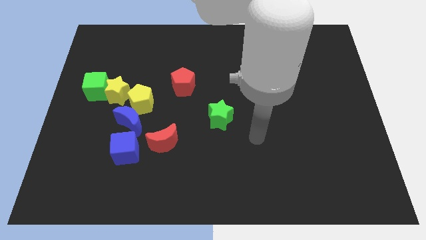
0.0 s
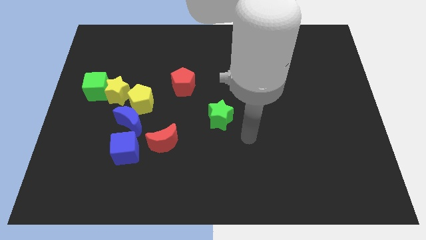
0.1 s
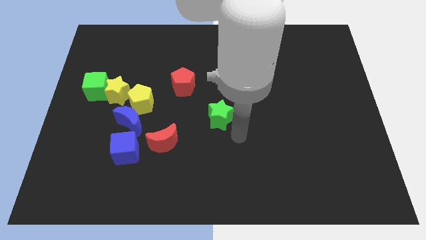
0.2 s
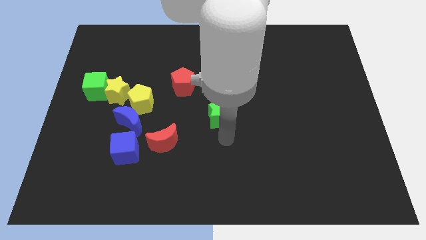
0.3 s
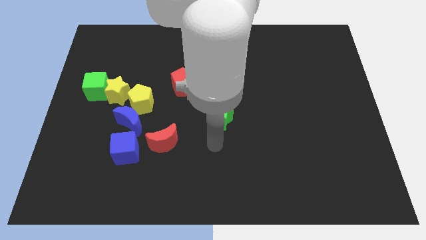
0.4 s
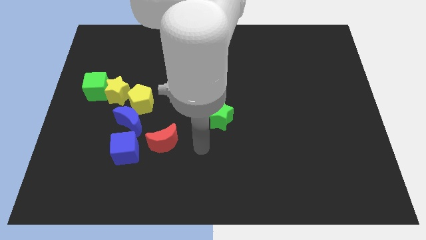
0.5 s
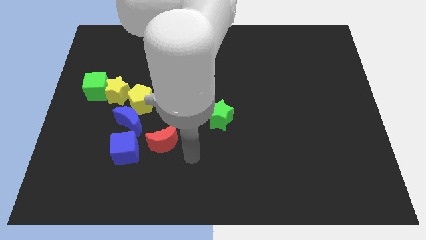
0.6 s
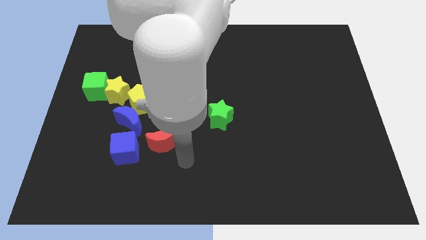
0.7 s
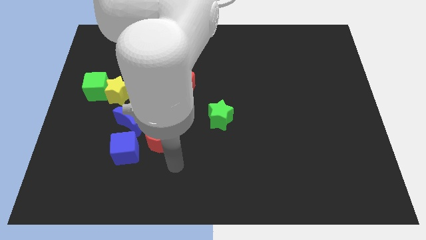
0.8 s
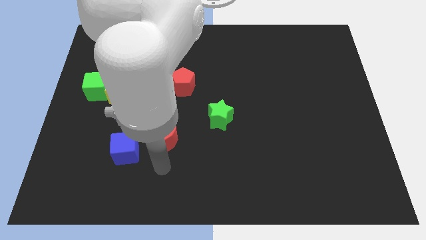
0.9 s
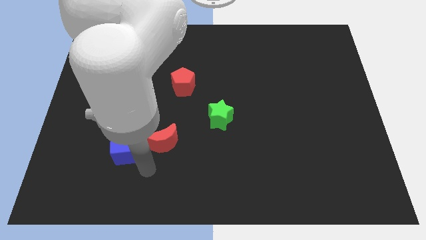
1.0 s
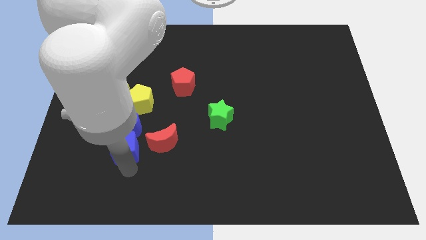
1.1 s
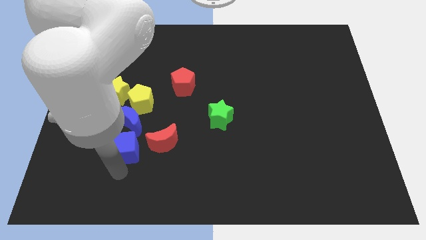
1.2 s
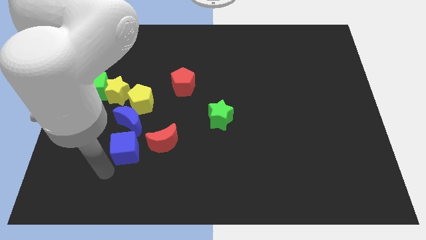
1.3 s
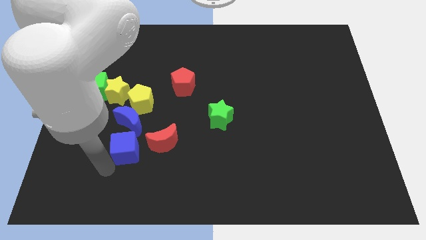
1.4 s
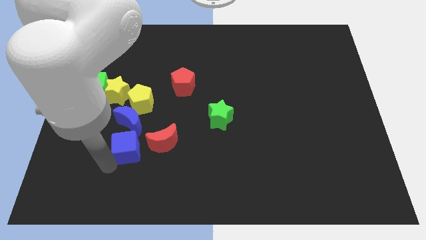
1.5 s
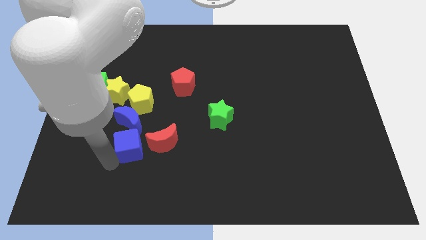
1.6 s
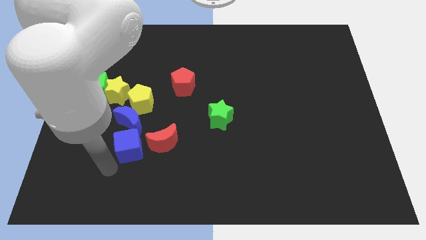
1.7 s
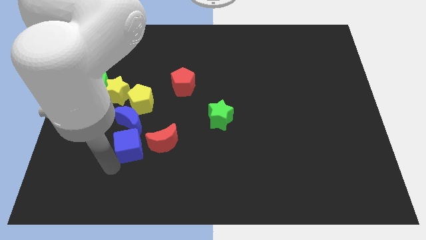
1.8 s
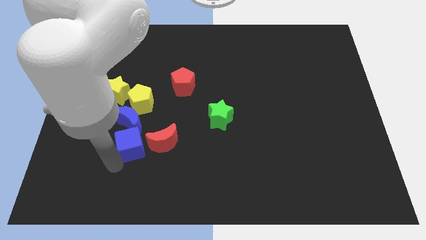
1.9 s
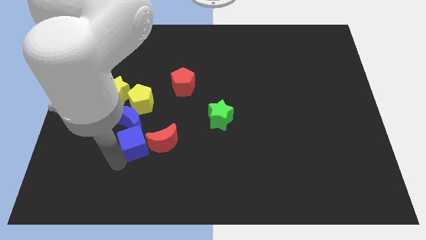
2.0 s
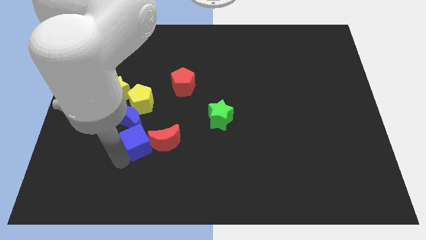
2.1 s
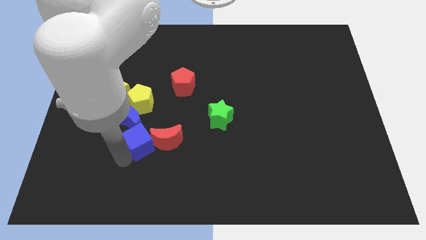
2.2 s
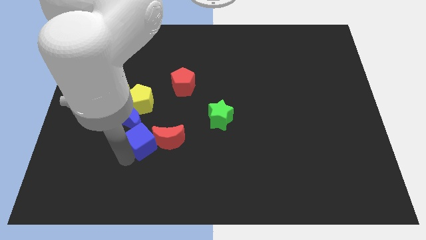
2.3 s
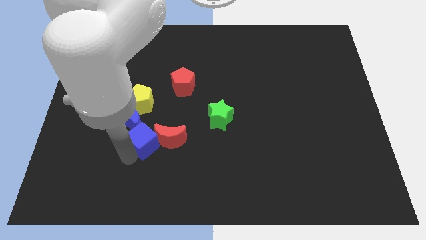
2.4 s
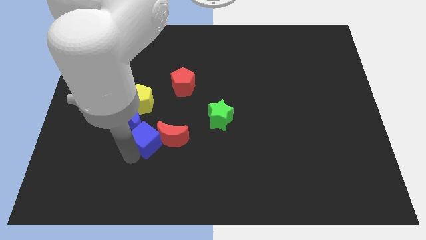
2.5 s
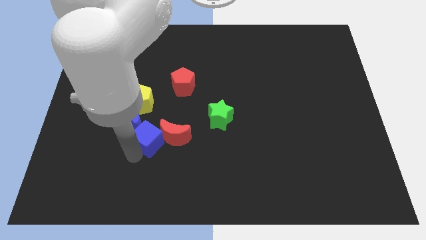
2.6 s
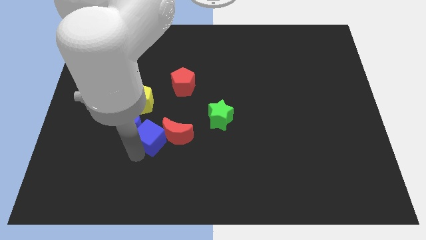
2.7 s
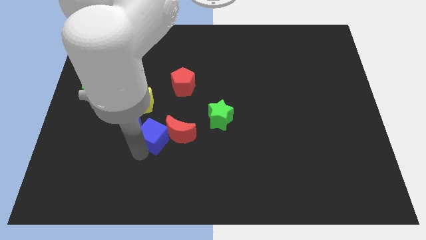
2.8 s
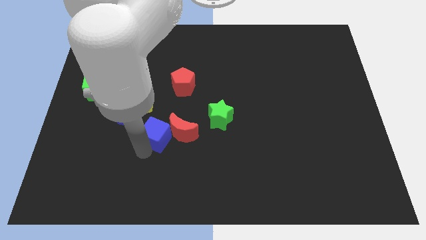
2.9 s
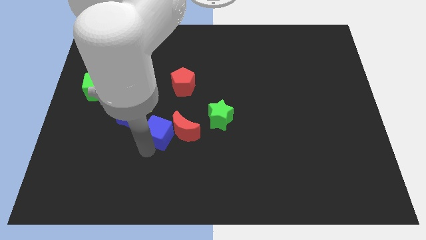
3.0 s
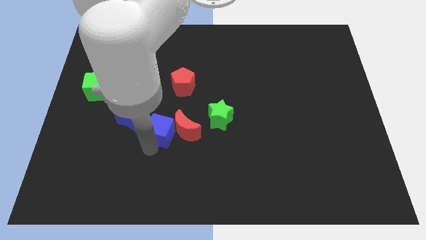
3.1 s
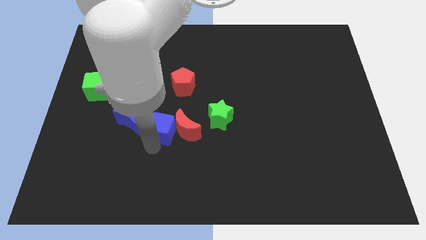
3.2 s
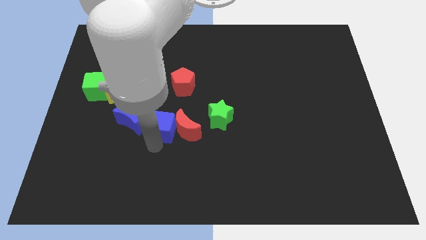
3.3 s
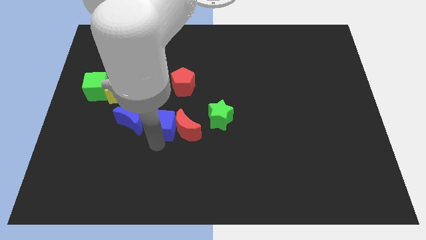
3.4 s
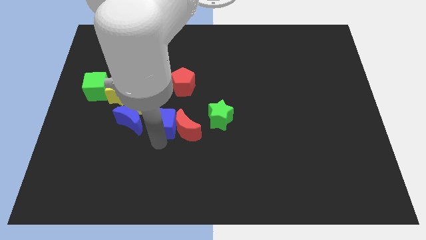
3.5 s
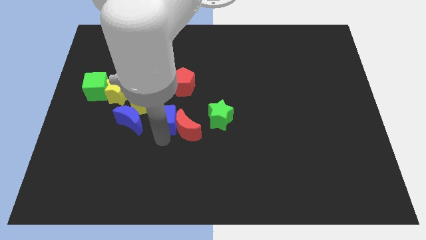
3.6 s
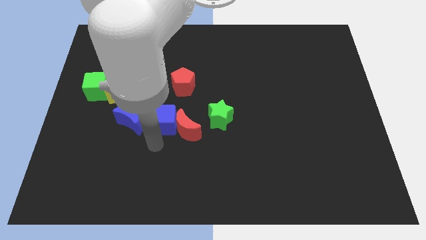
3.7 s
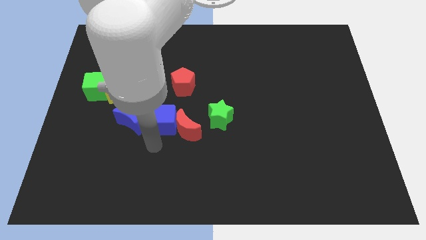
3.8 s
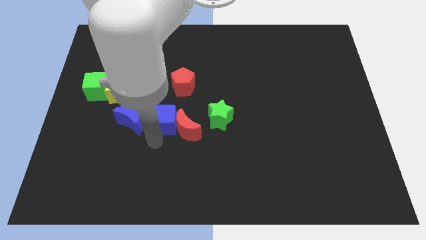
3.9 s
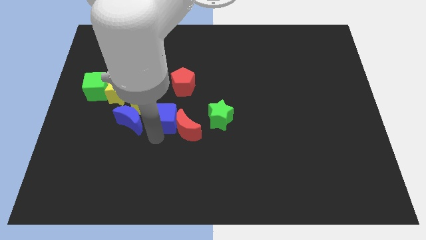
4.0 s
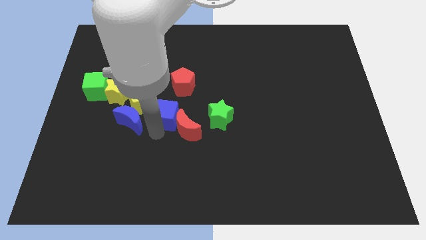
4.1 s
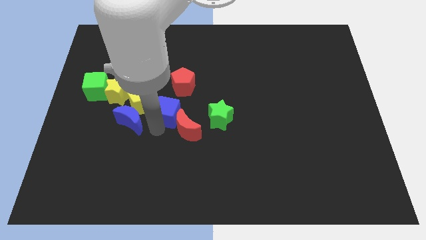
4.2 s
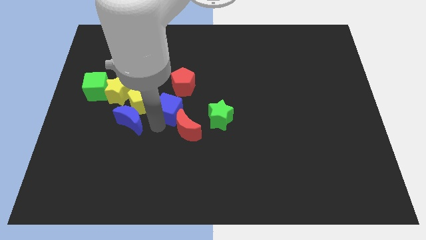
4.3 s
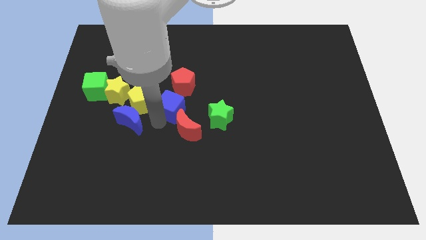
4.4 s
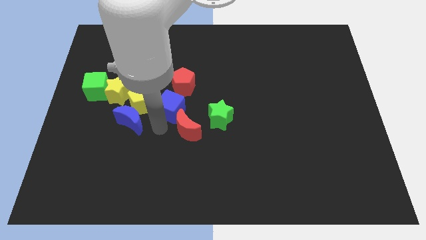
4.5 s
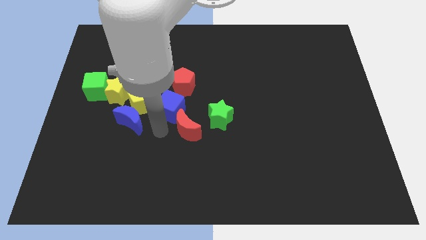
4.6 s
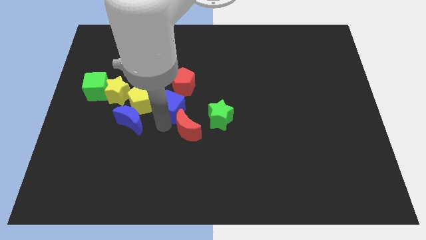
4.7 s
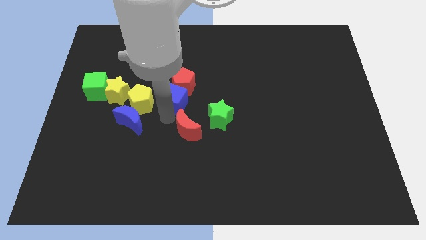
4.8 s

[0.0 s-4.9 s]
put the blue cube next to the red pentagon

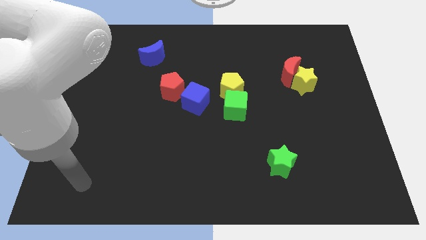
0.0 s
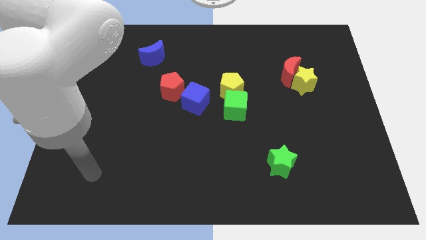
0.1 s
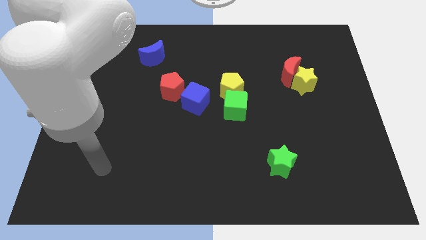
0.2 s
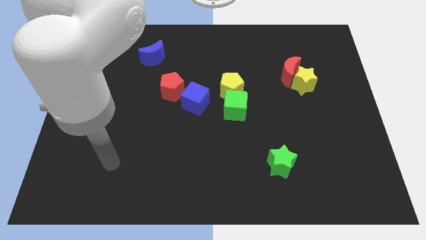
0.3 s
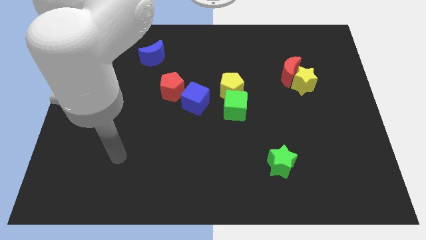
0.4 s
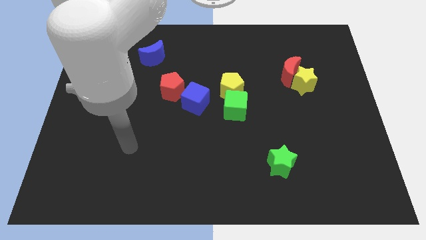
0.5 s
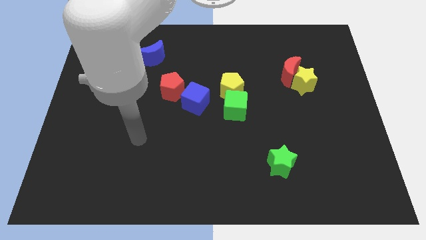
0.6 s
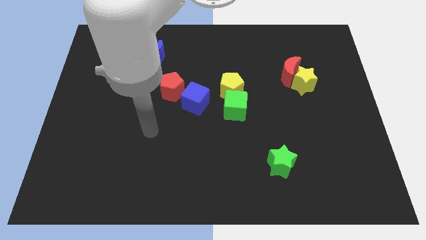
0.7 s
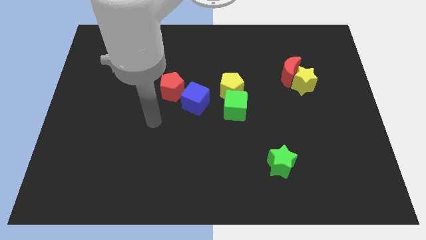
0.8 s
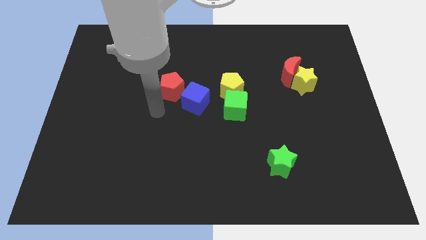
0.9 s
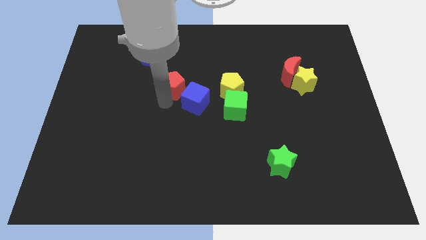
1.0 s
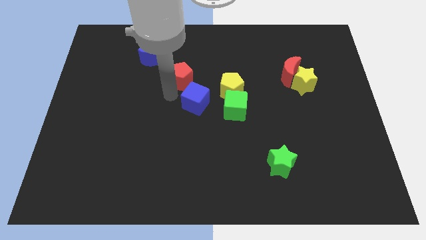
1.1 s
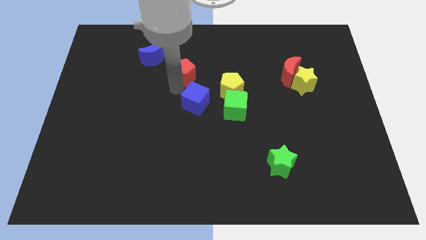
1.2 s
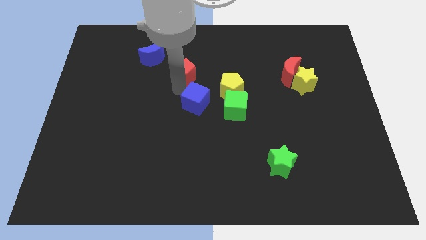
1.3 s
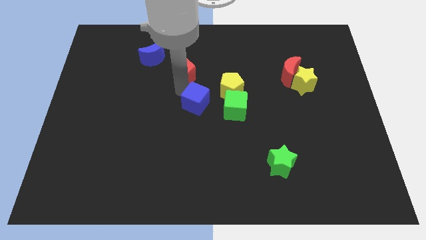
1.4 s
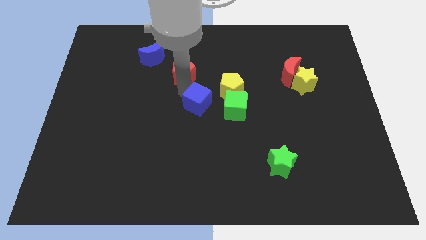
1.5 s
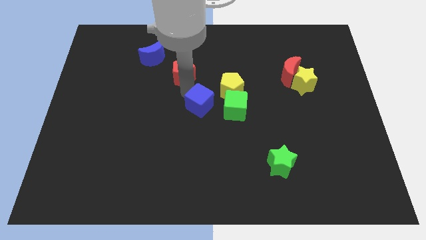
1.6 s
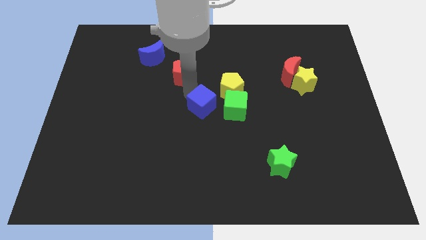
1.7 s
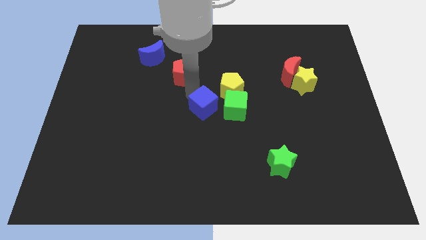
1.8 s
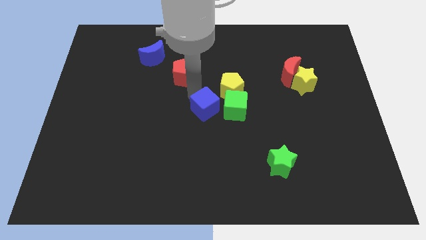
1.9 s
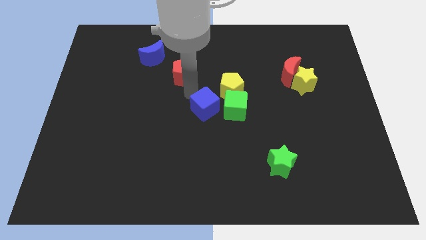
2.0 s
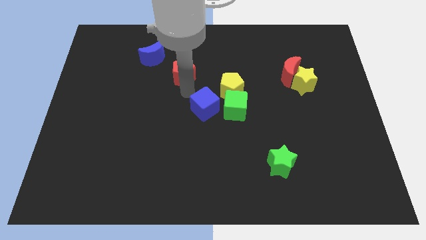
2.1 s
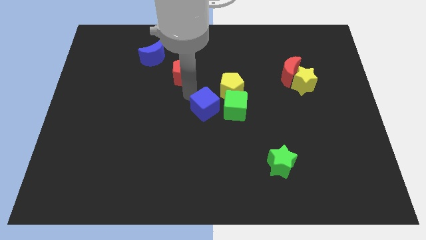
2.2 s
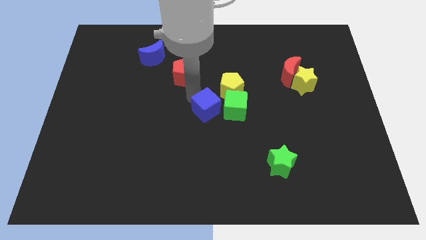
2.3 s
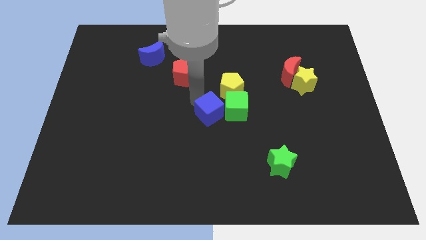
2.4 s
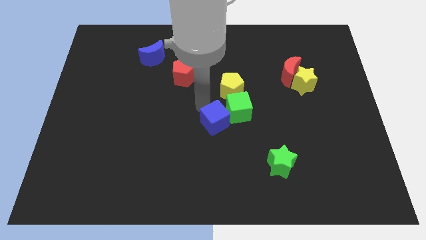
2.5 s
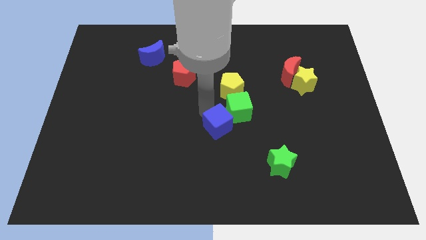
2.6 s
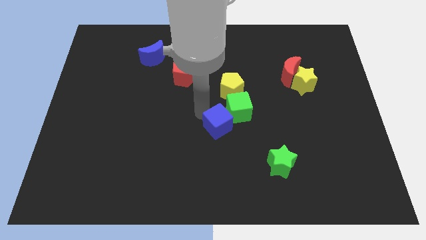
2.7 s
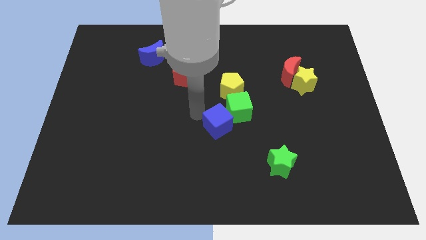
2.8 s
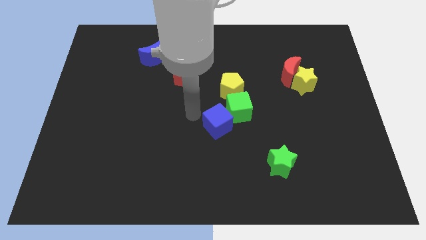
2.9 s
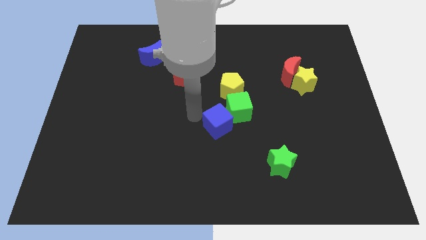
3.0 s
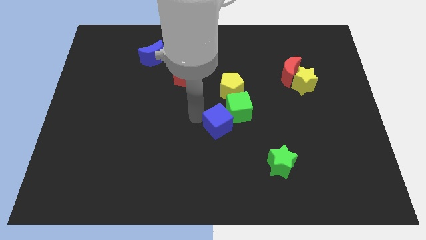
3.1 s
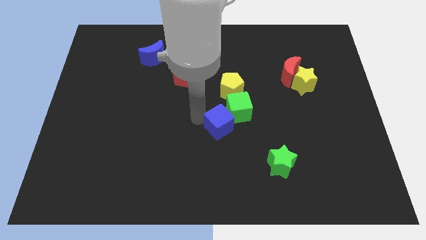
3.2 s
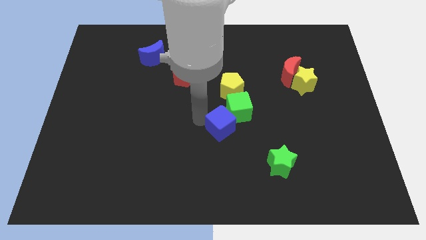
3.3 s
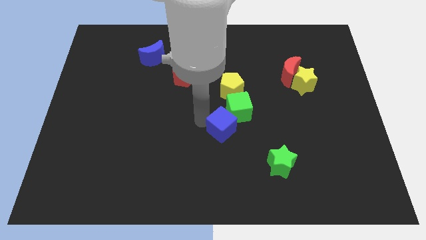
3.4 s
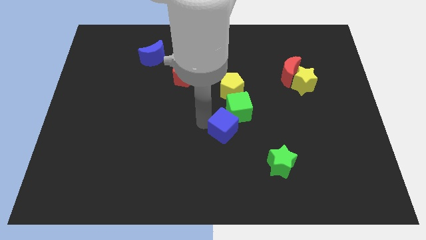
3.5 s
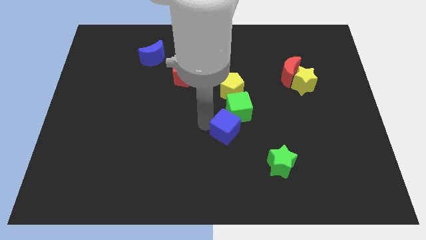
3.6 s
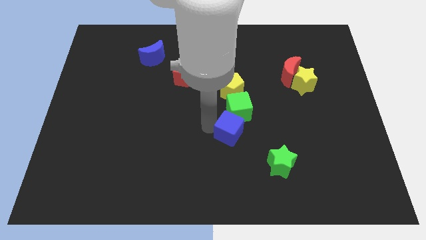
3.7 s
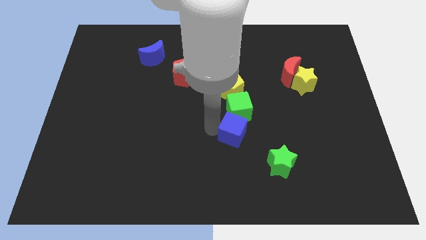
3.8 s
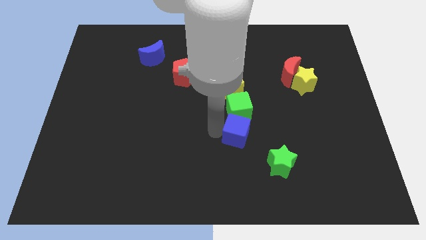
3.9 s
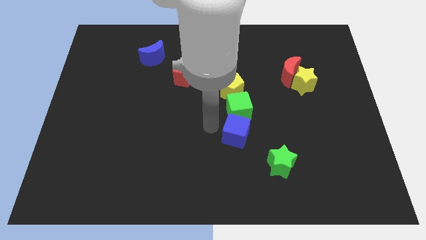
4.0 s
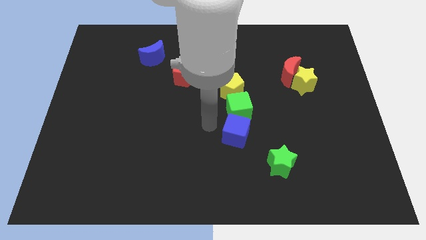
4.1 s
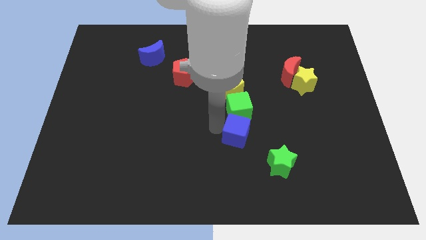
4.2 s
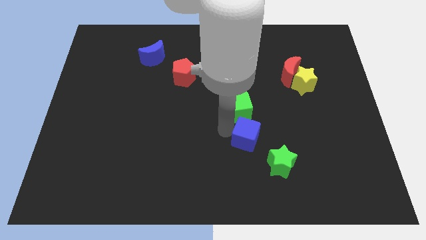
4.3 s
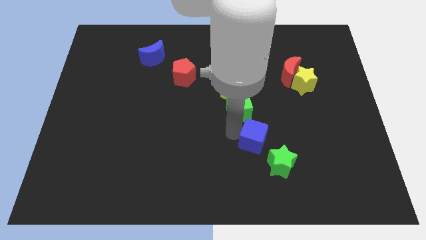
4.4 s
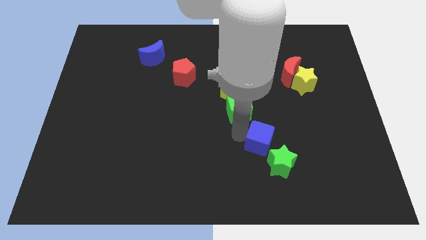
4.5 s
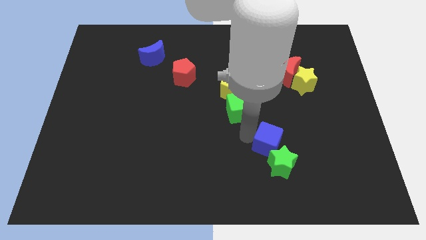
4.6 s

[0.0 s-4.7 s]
push the blue cube towards the green star
